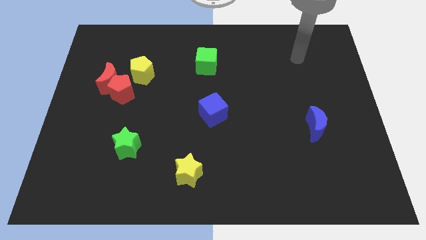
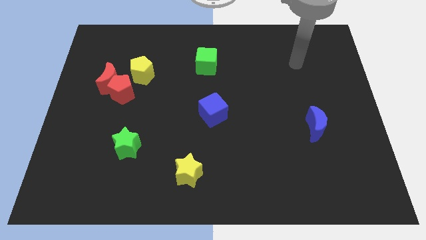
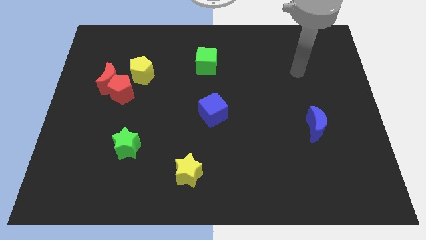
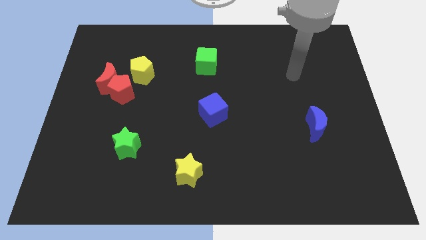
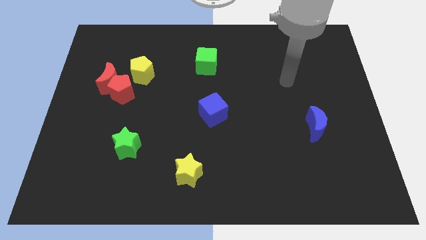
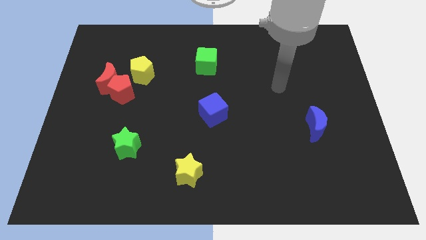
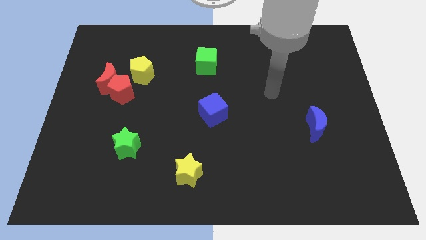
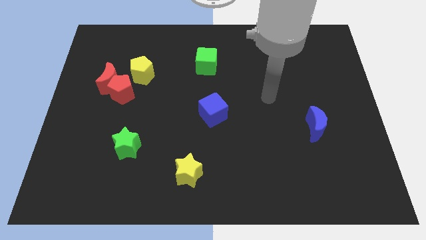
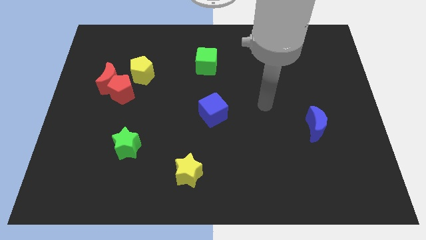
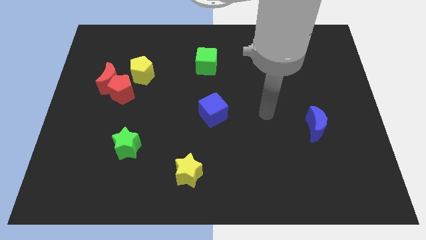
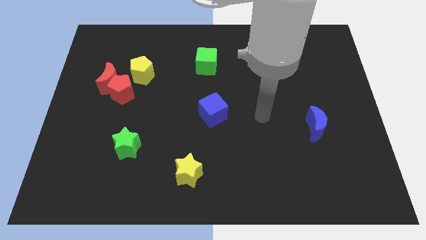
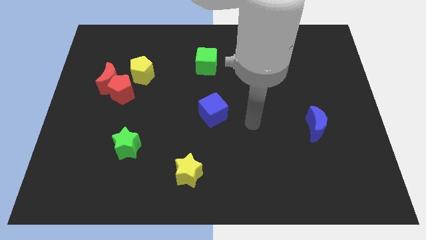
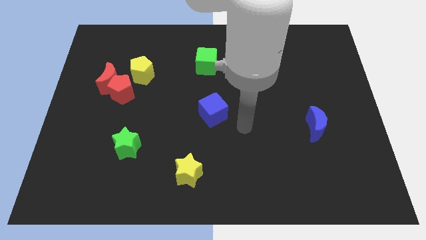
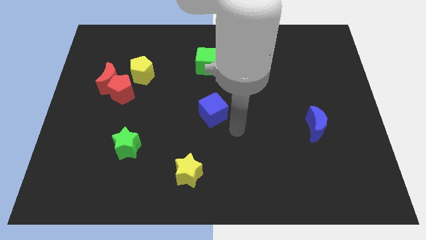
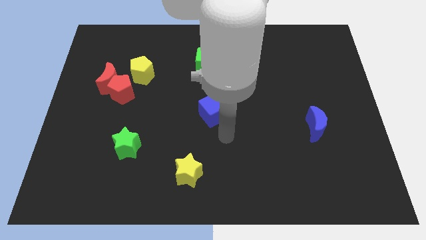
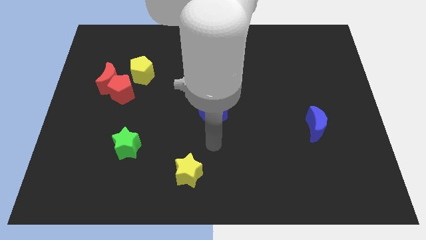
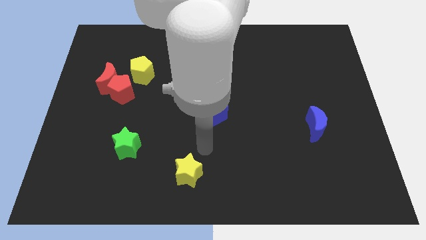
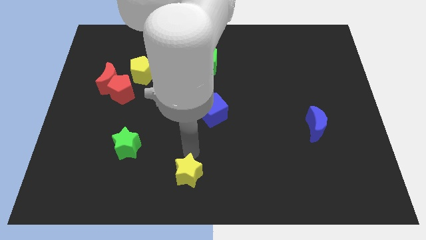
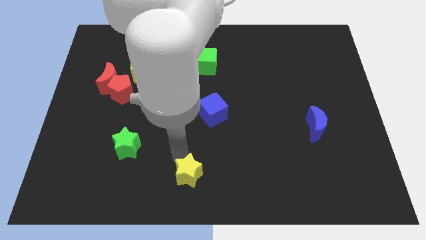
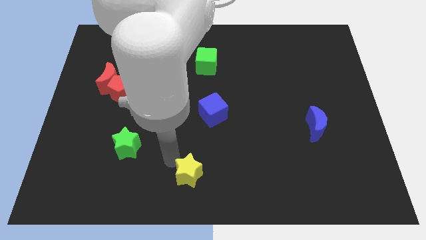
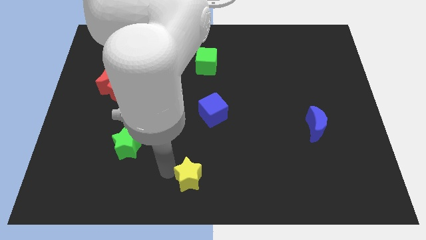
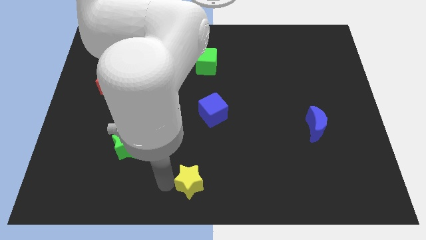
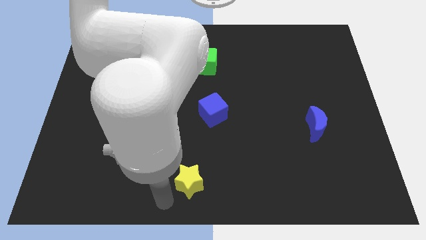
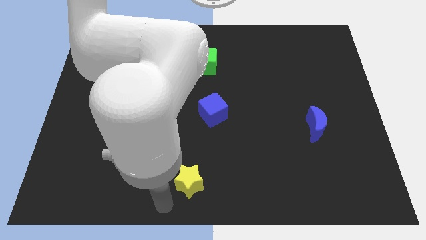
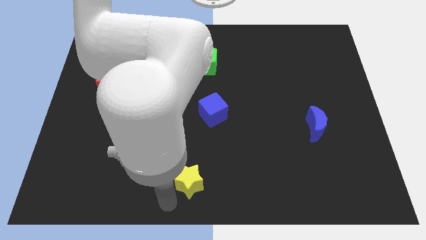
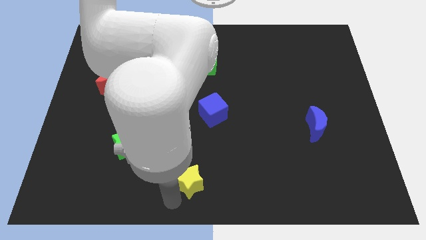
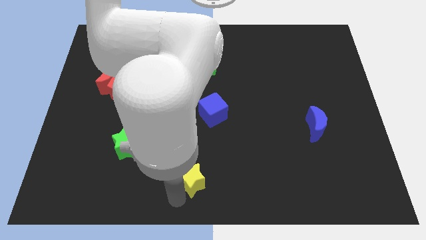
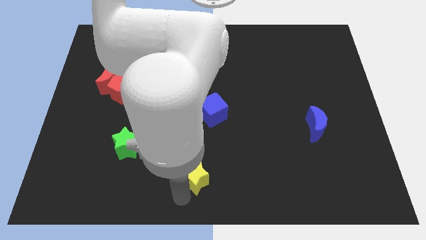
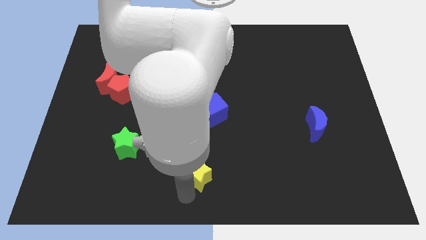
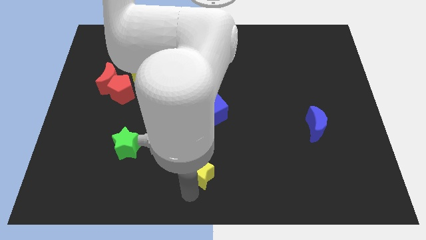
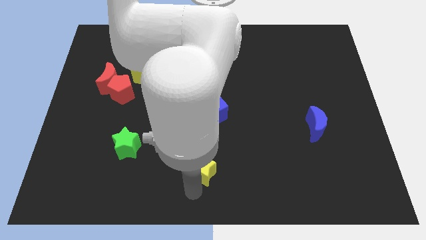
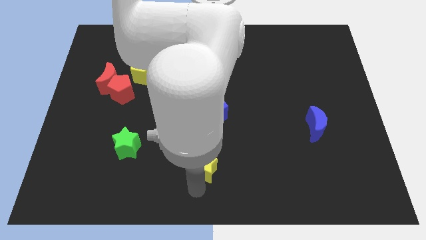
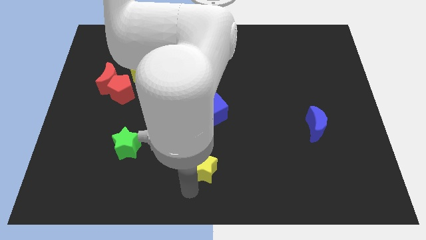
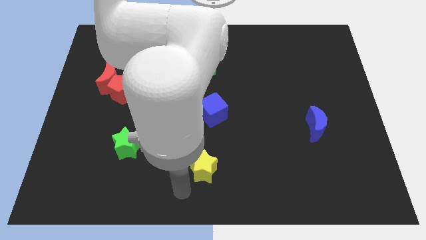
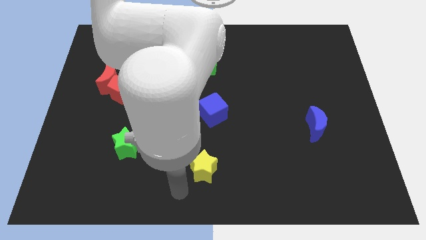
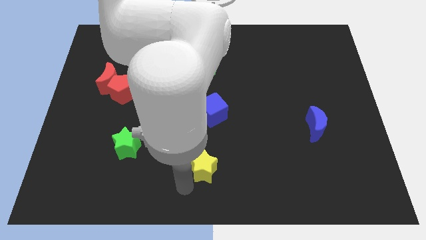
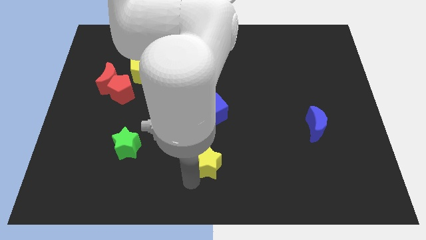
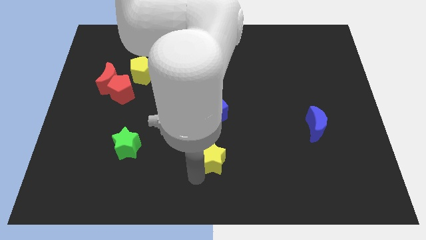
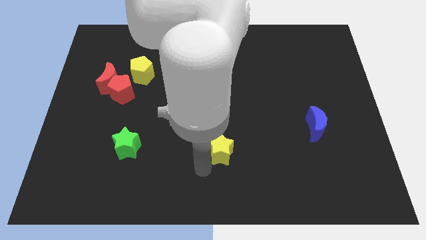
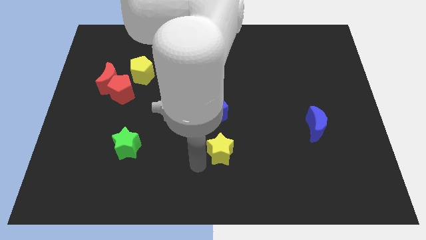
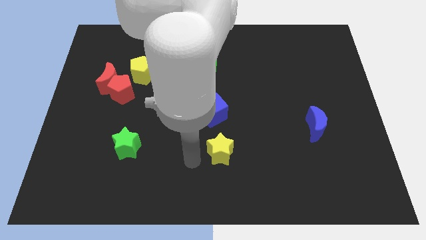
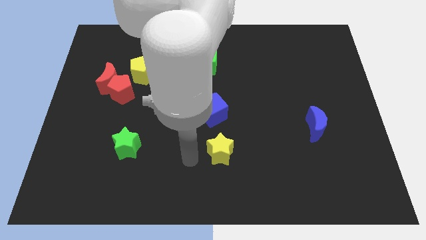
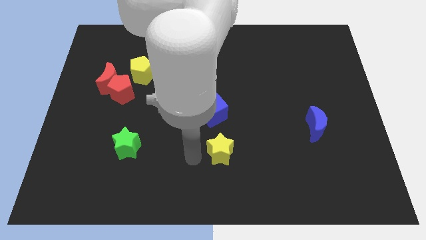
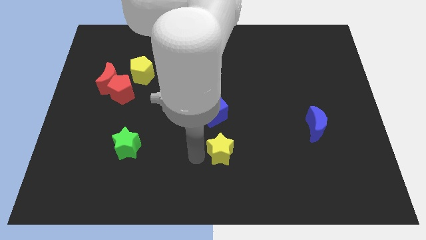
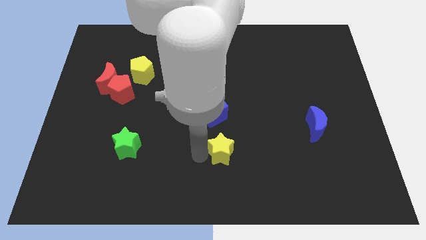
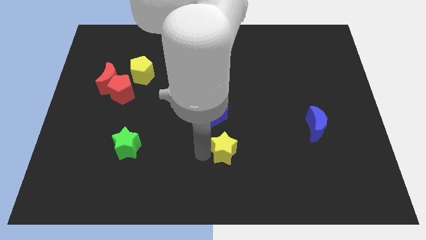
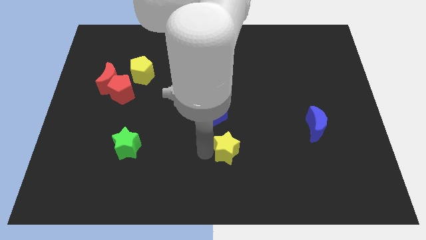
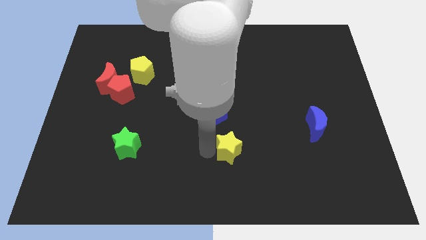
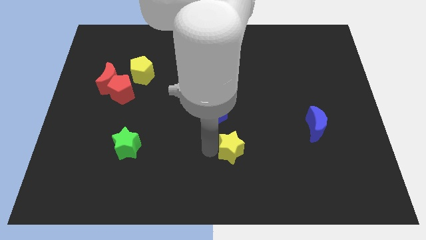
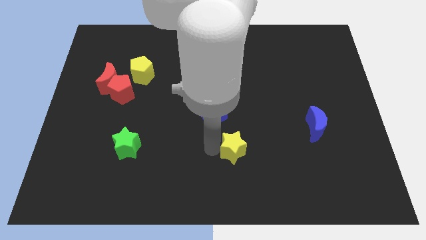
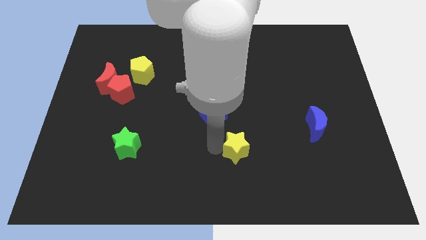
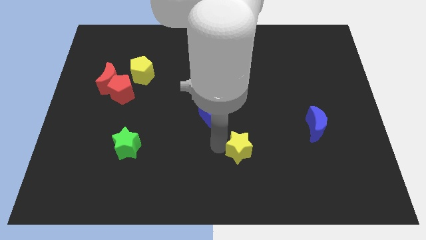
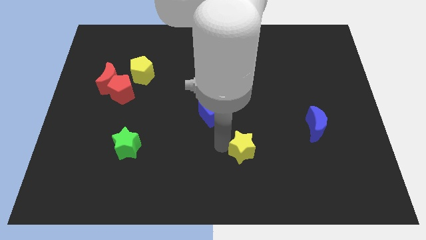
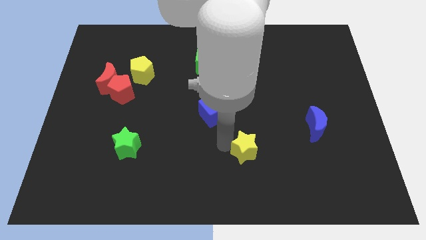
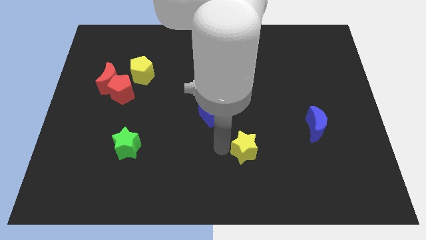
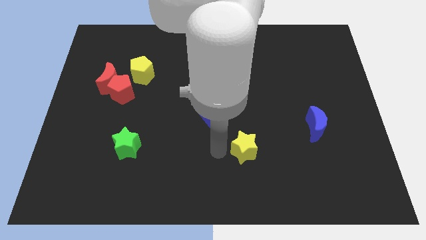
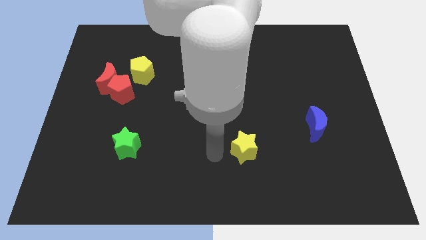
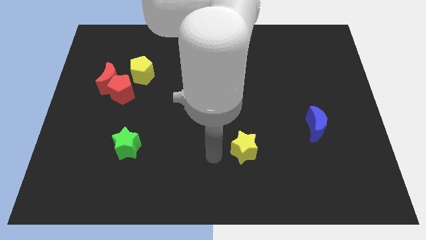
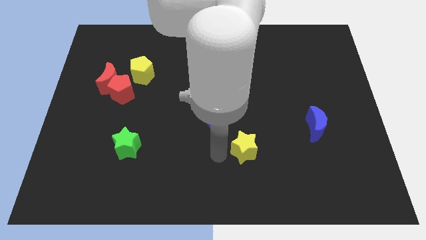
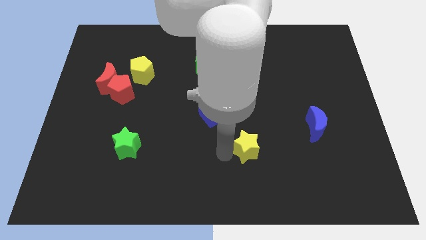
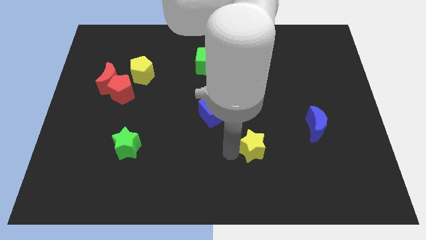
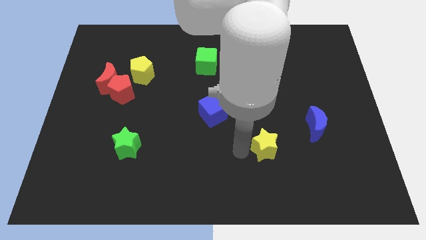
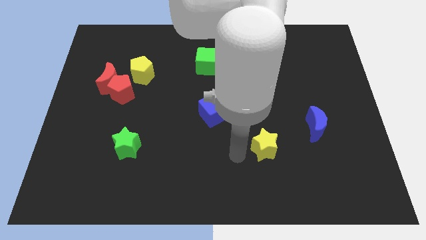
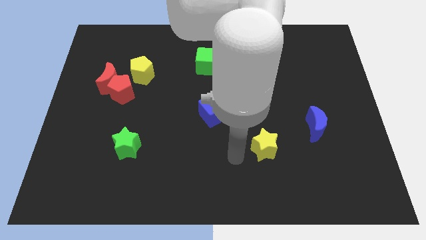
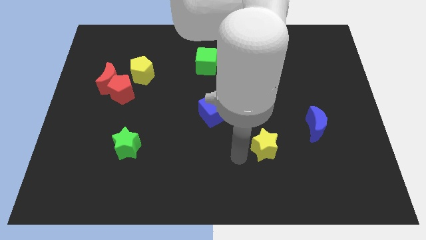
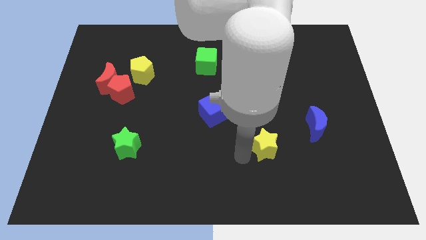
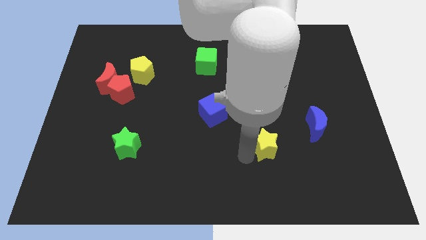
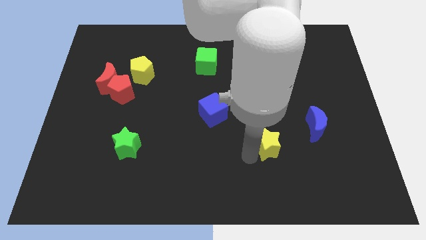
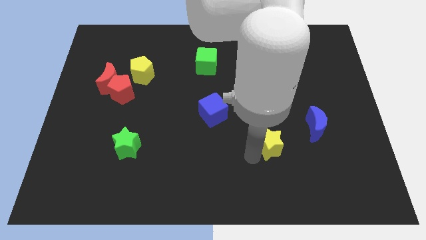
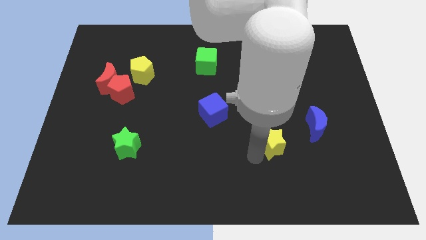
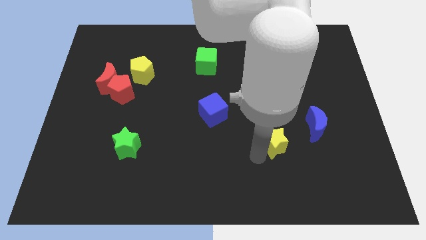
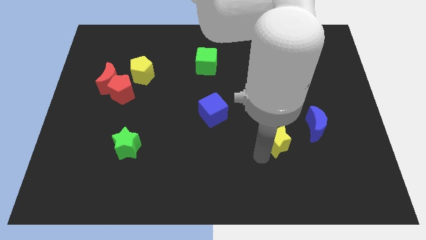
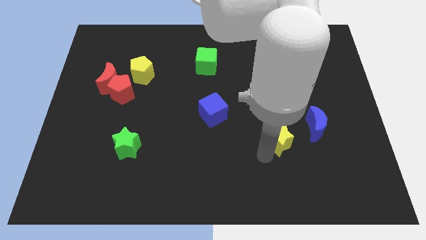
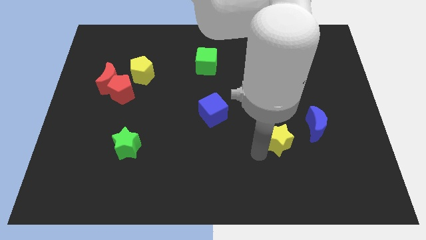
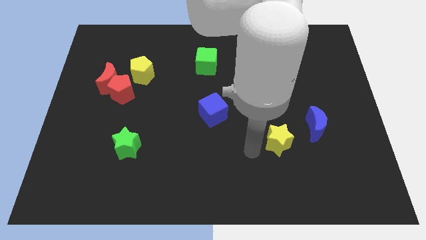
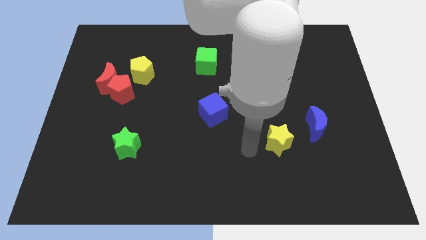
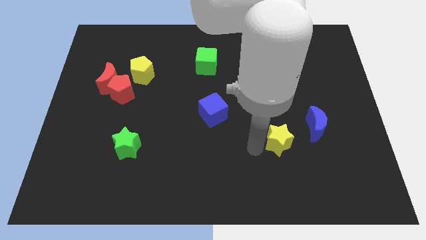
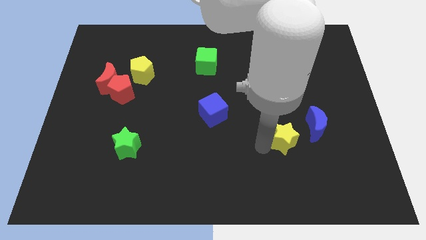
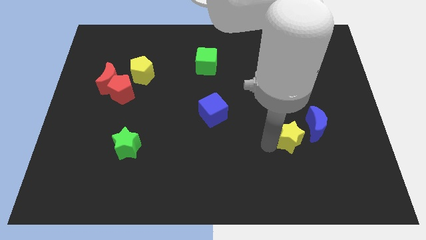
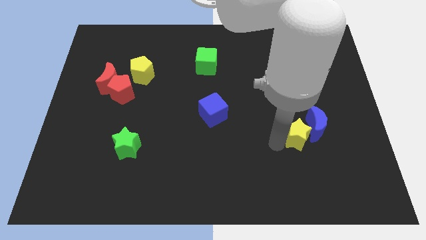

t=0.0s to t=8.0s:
slide the yellow star close to the blue moon
